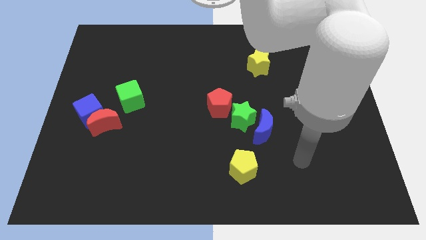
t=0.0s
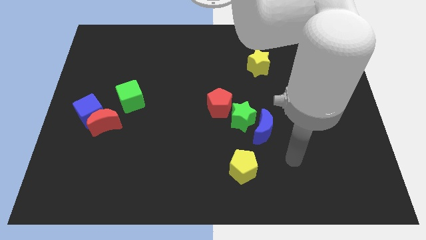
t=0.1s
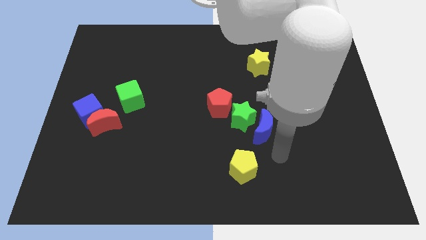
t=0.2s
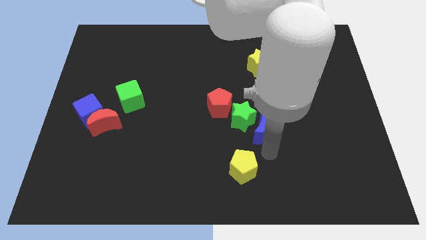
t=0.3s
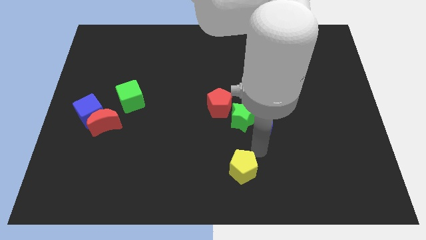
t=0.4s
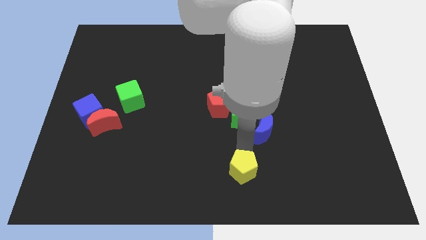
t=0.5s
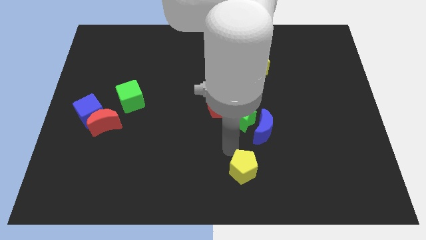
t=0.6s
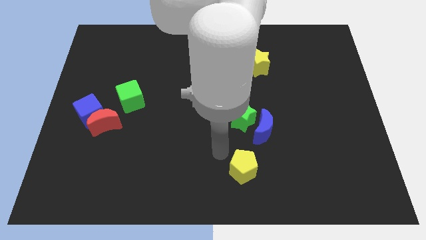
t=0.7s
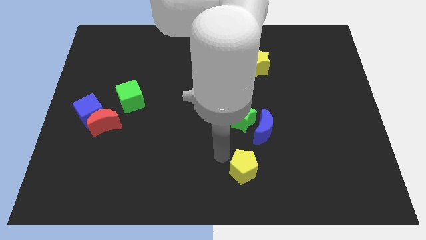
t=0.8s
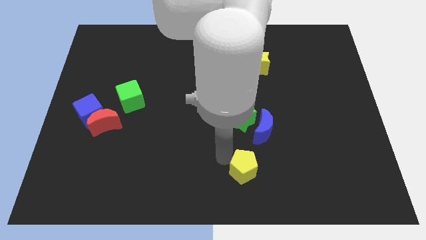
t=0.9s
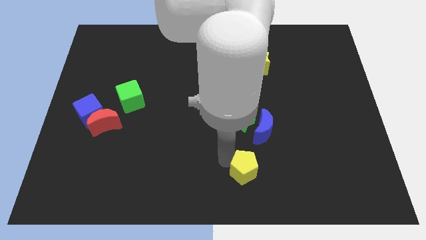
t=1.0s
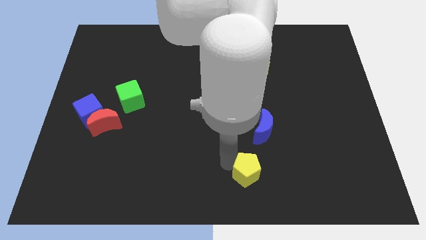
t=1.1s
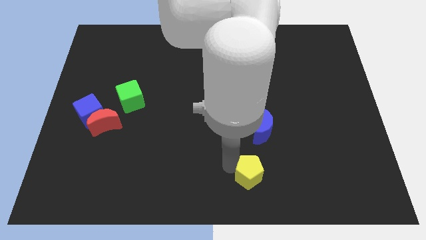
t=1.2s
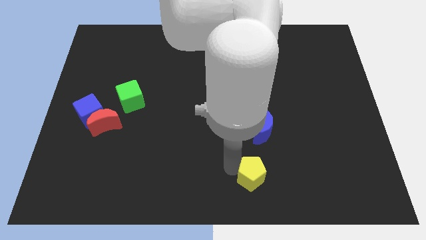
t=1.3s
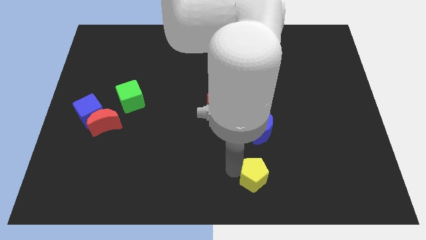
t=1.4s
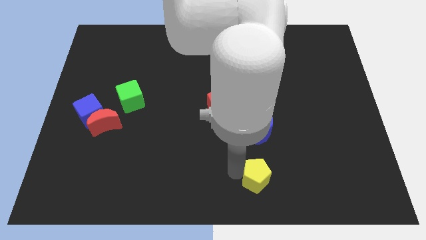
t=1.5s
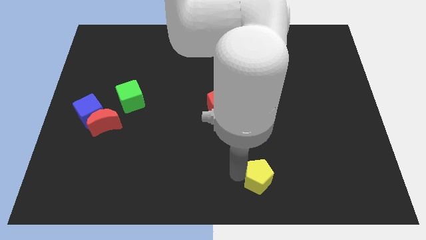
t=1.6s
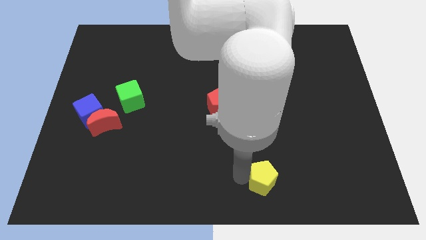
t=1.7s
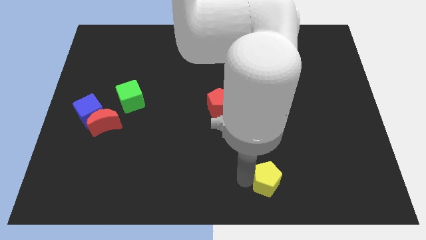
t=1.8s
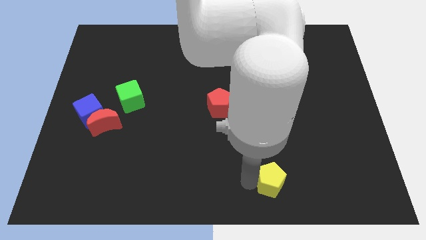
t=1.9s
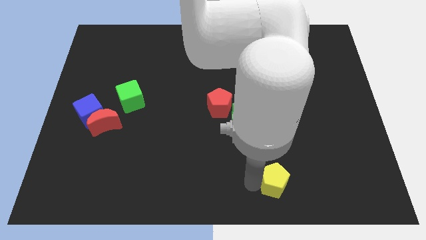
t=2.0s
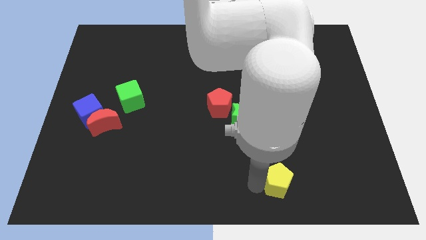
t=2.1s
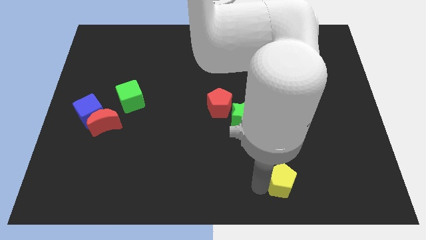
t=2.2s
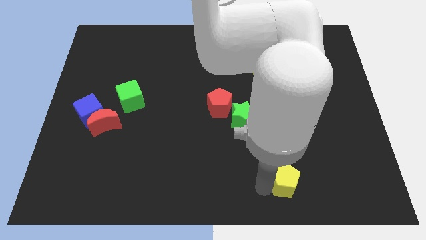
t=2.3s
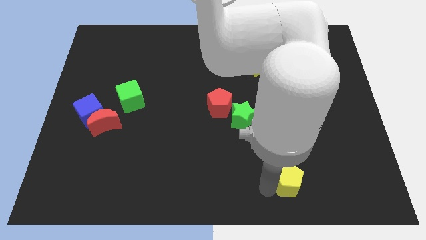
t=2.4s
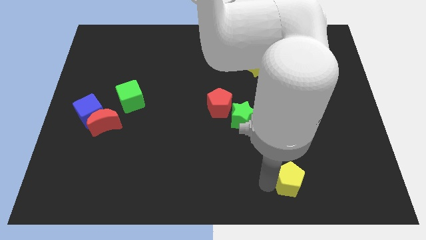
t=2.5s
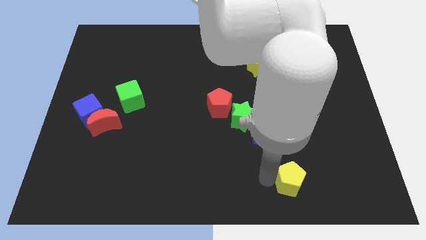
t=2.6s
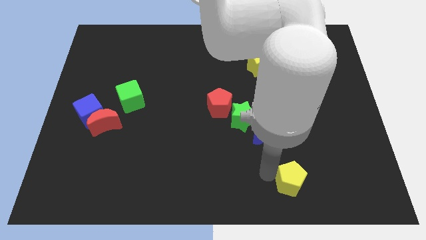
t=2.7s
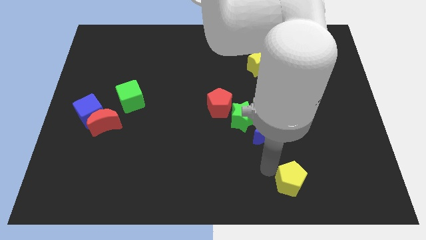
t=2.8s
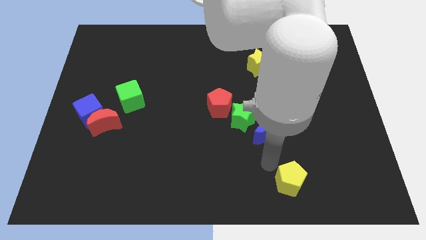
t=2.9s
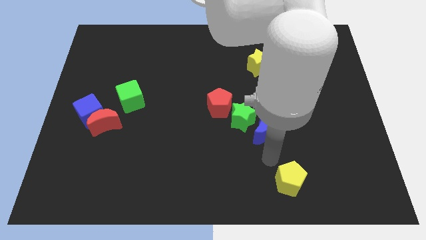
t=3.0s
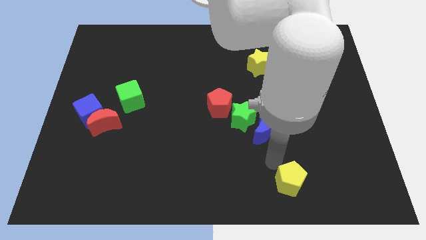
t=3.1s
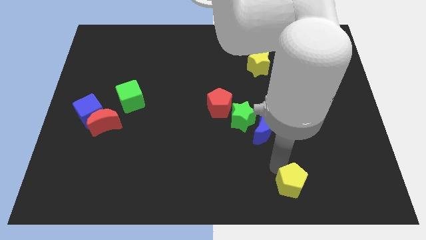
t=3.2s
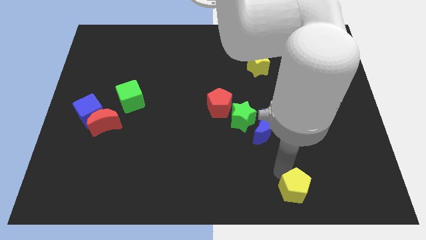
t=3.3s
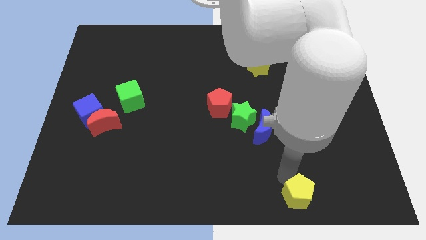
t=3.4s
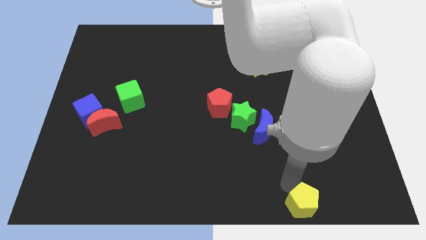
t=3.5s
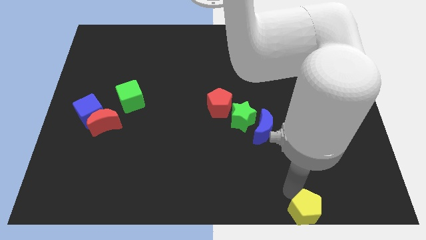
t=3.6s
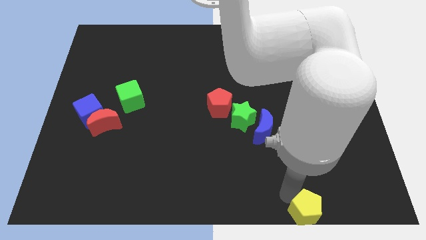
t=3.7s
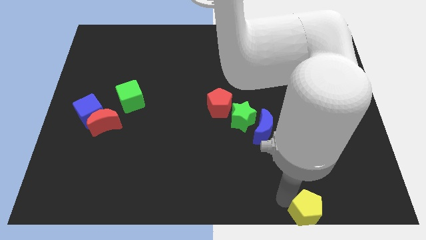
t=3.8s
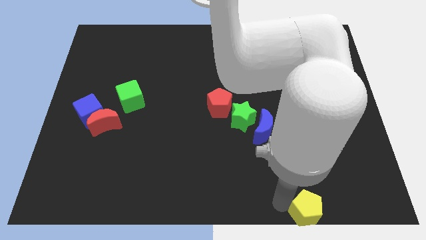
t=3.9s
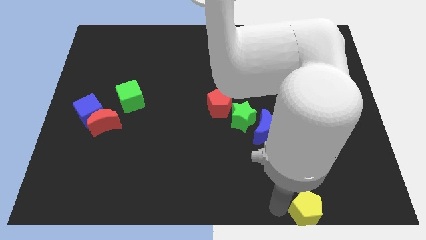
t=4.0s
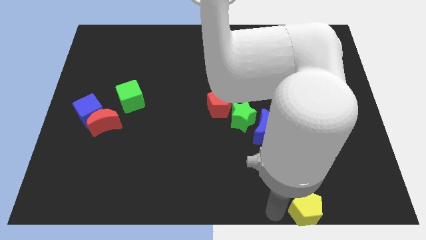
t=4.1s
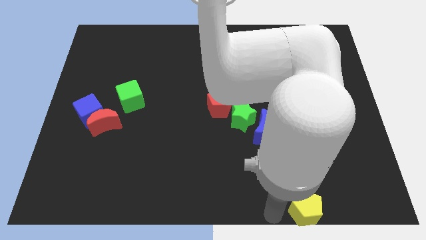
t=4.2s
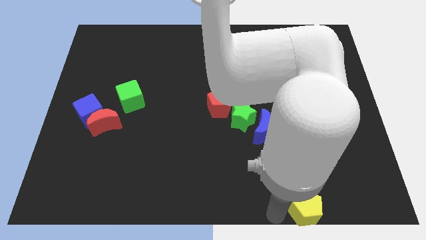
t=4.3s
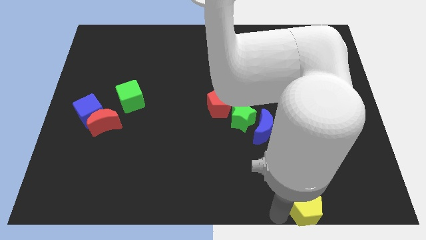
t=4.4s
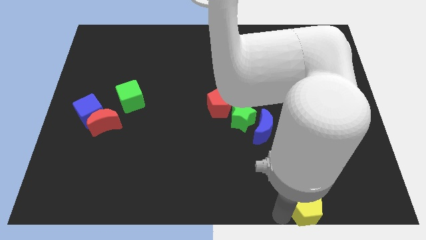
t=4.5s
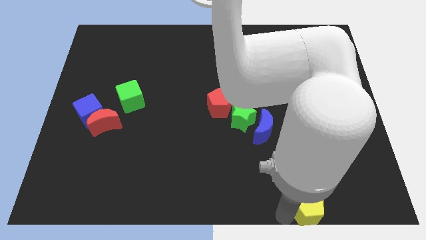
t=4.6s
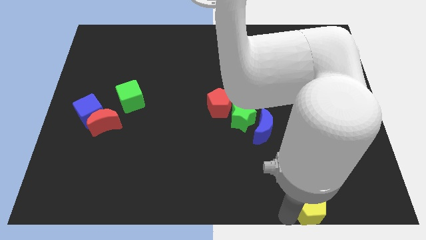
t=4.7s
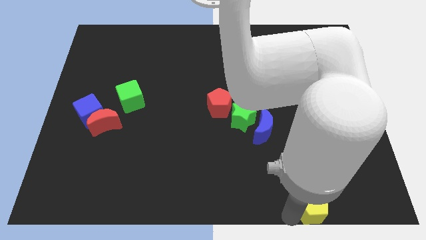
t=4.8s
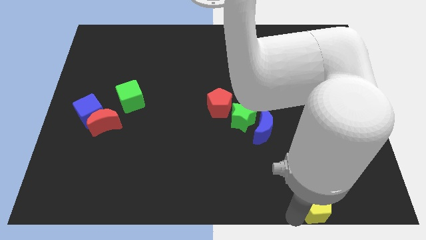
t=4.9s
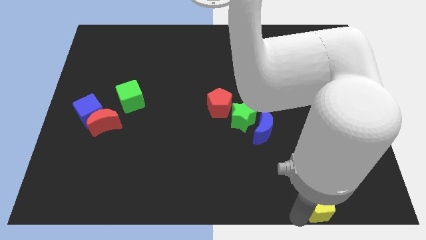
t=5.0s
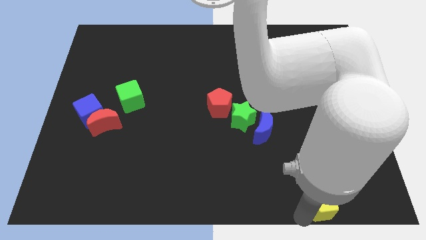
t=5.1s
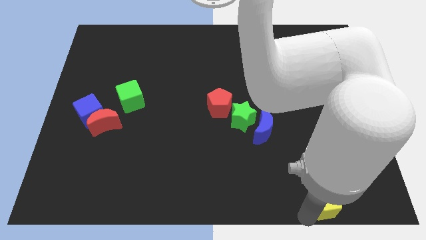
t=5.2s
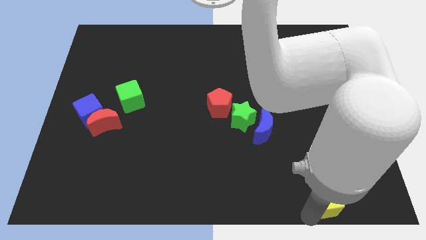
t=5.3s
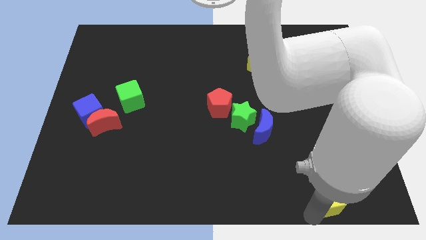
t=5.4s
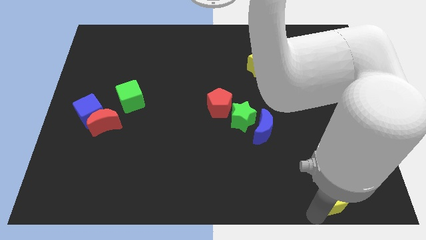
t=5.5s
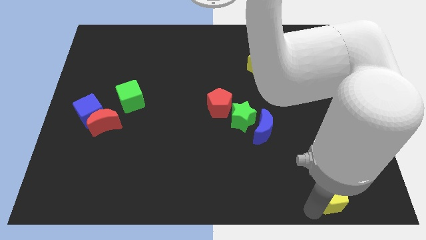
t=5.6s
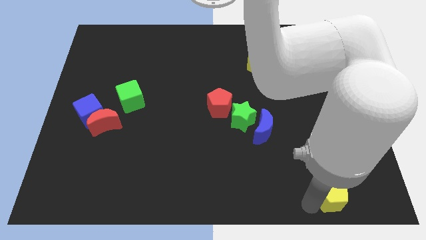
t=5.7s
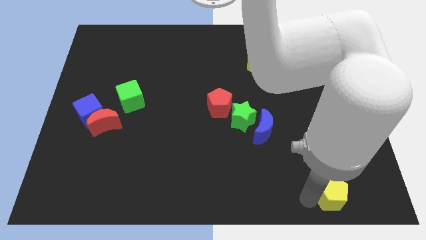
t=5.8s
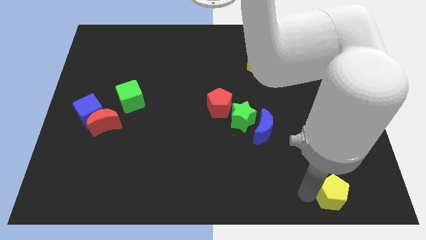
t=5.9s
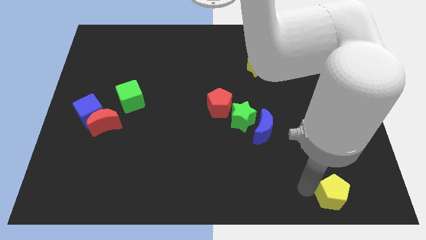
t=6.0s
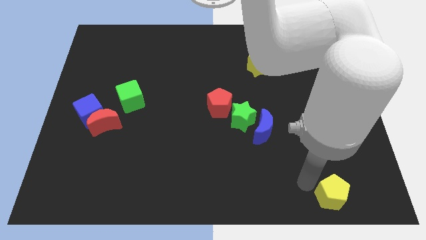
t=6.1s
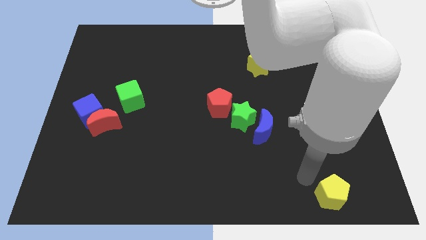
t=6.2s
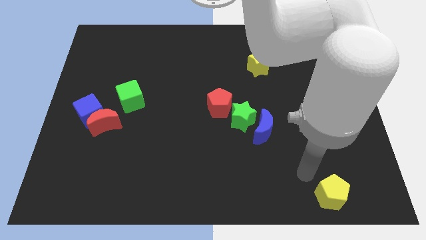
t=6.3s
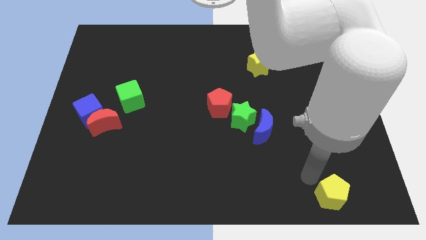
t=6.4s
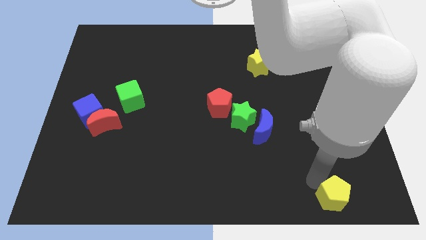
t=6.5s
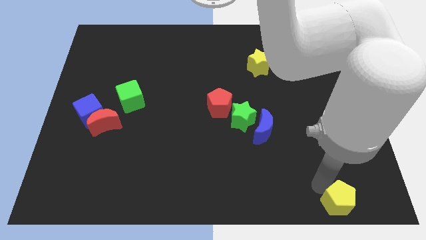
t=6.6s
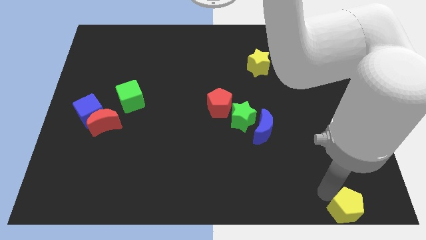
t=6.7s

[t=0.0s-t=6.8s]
slide the yellow pentagon to the bottom right corner
